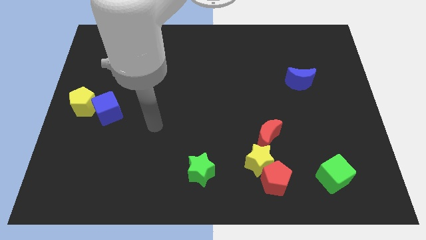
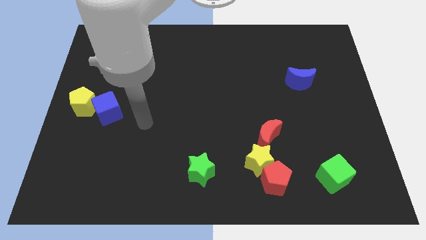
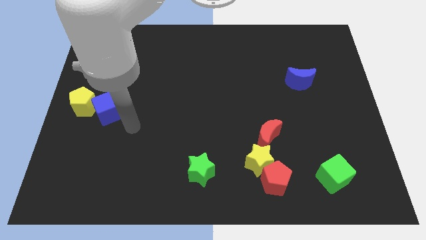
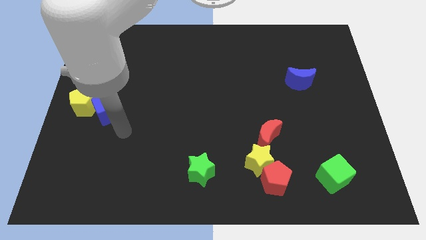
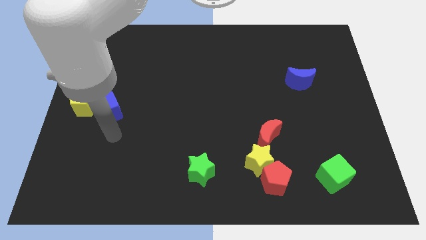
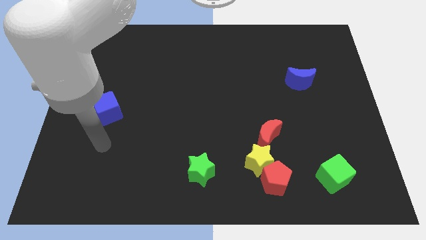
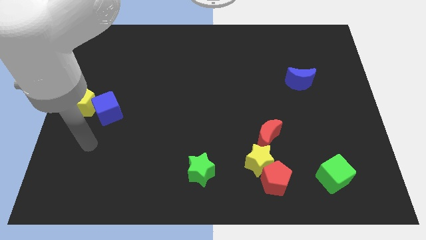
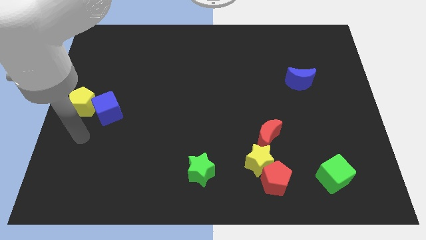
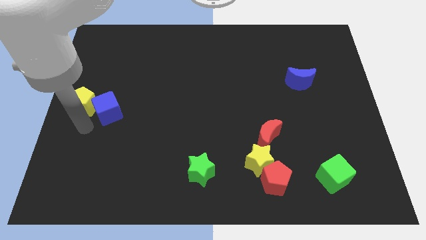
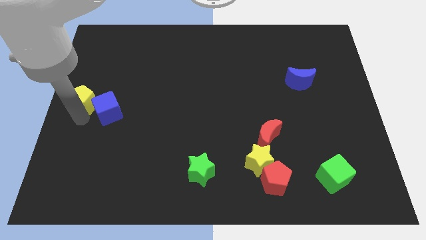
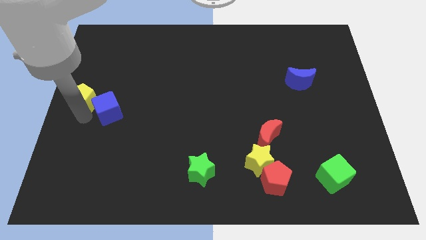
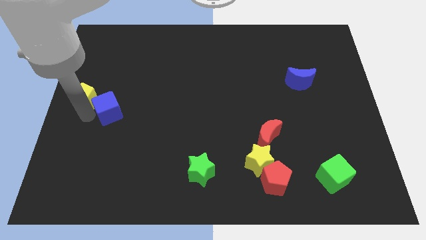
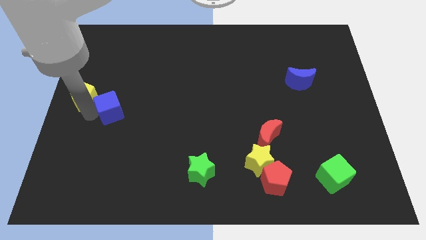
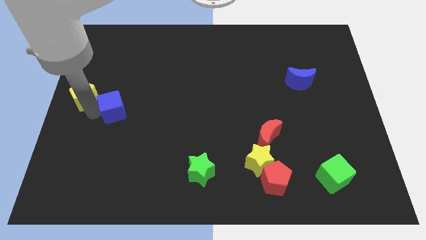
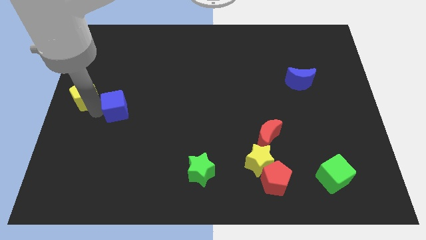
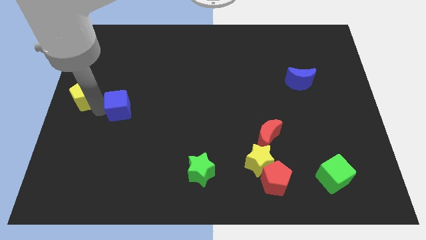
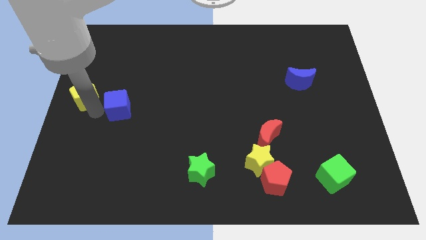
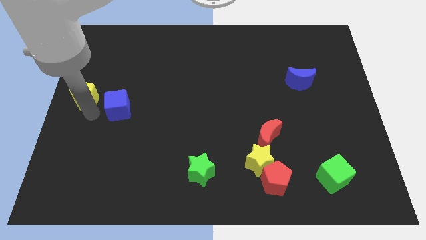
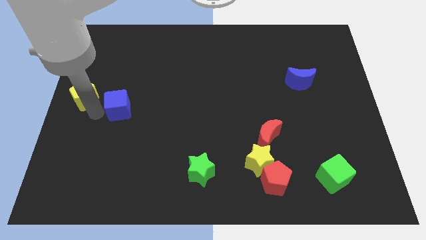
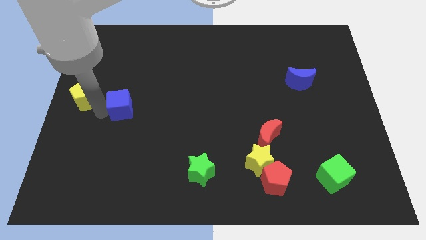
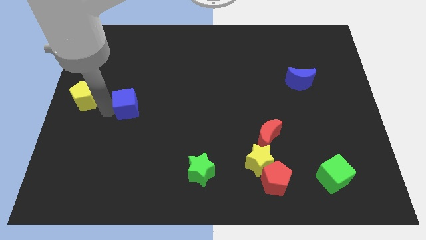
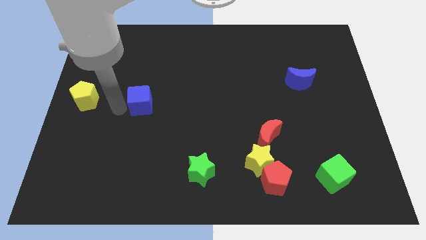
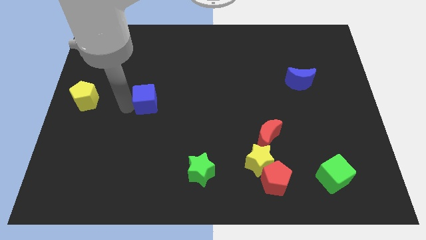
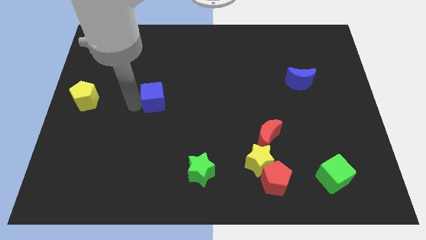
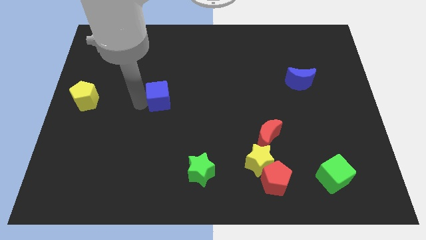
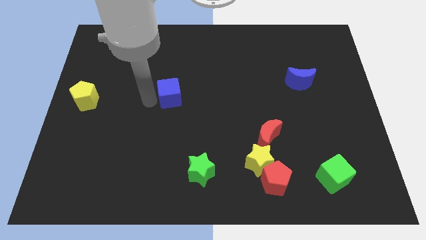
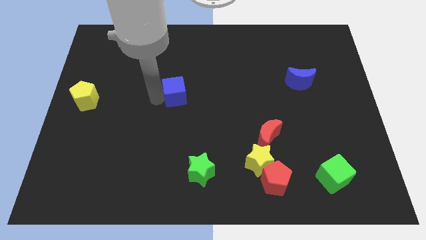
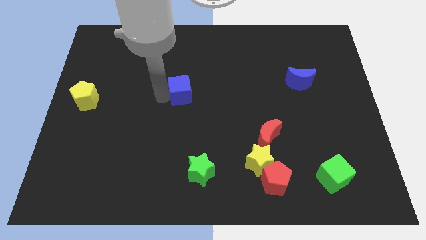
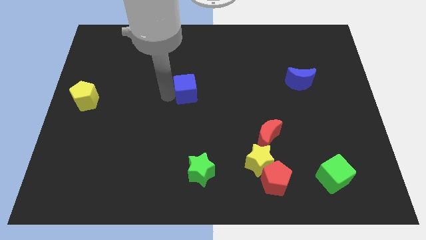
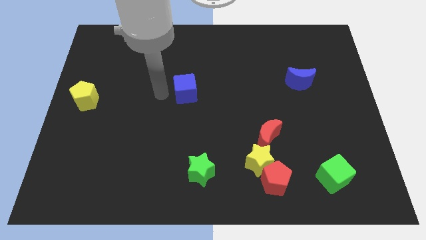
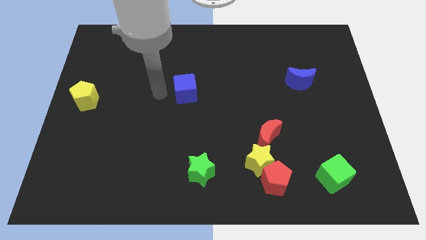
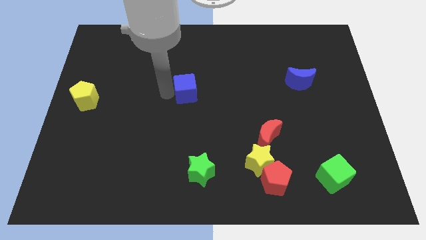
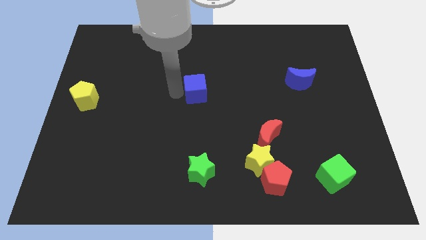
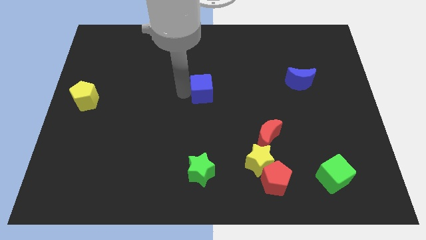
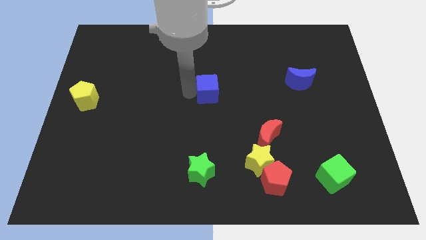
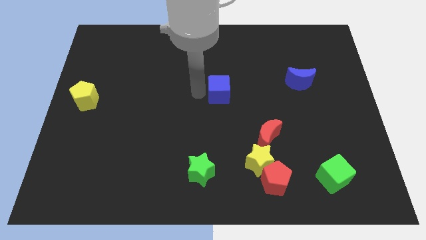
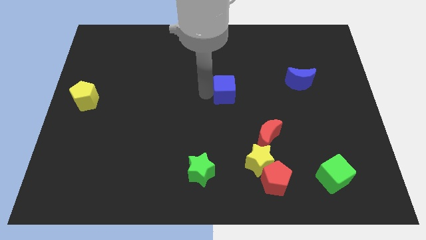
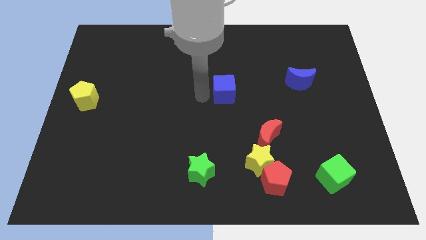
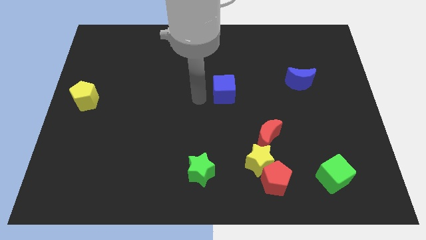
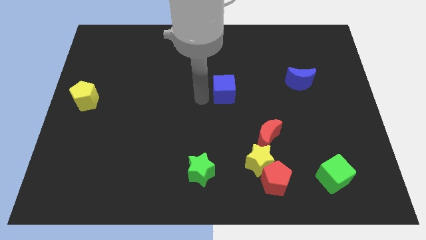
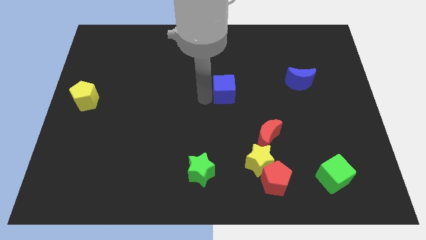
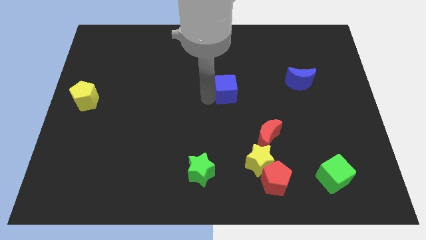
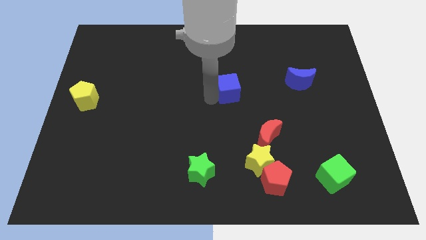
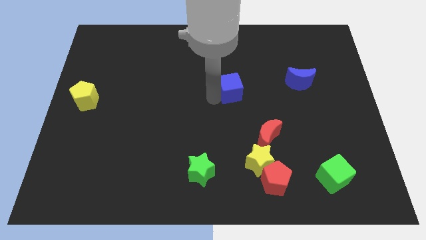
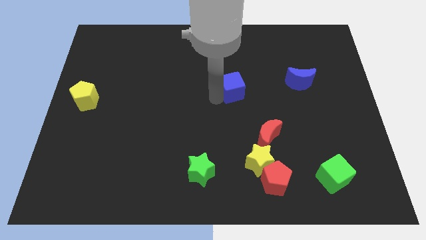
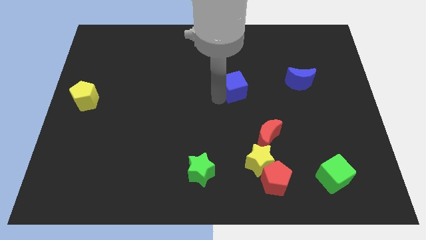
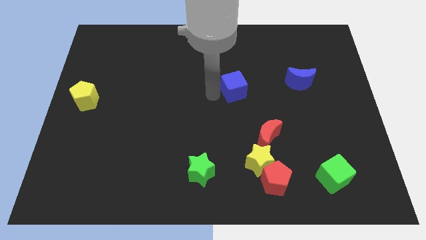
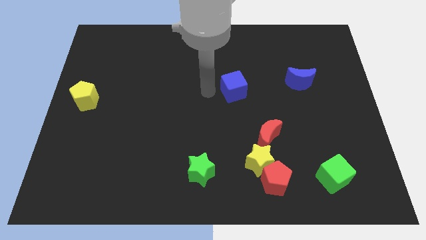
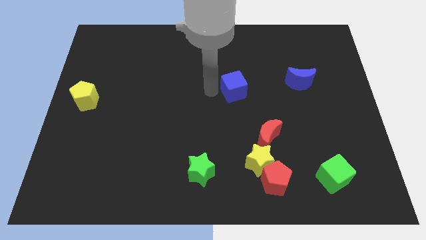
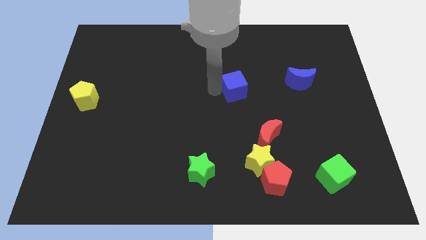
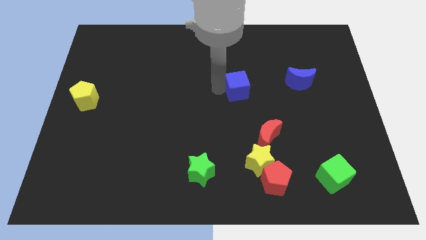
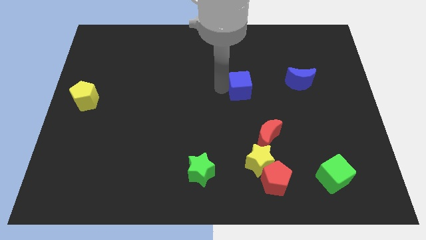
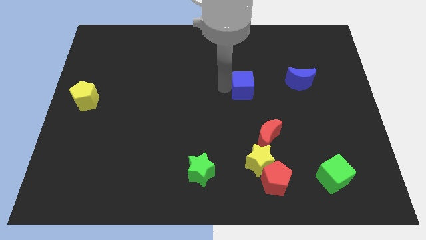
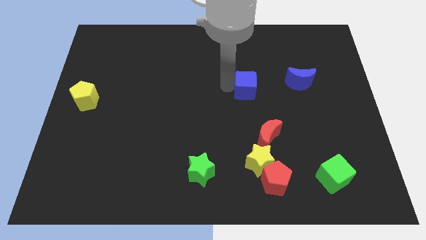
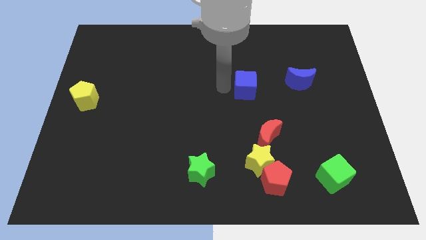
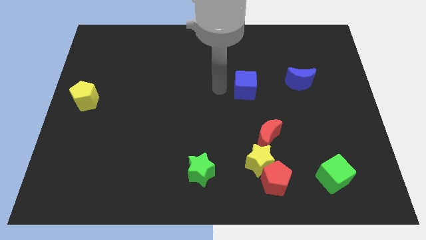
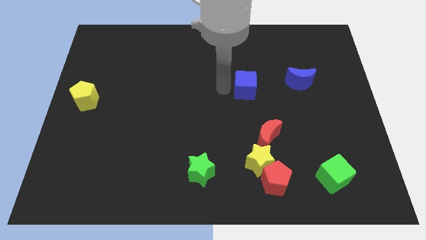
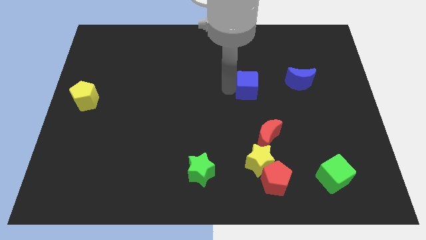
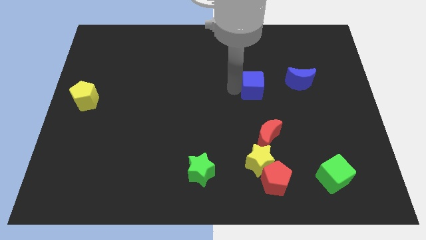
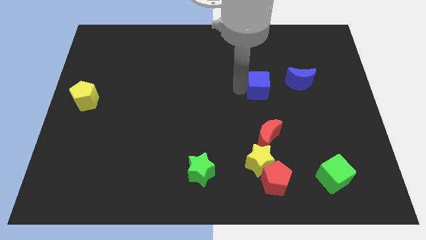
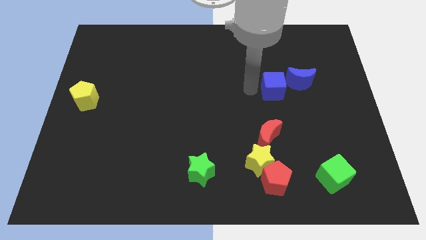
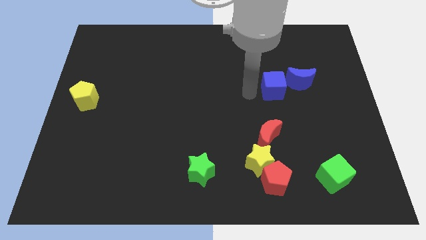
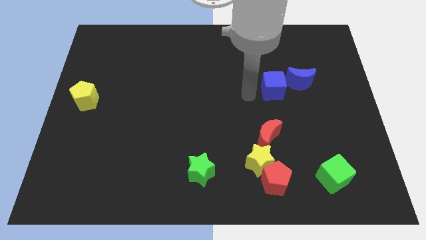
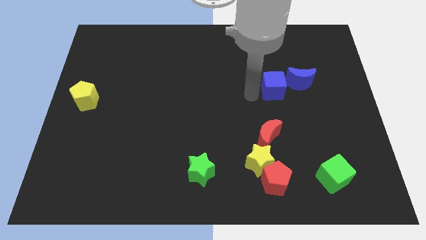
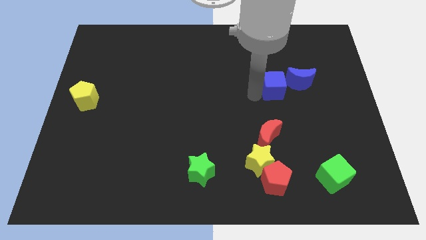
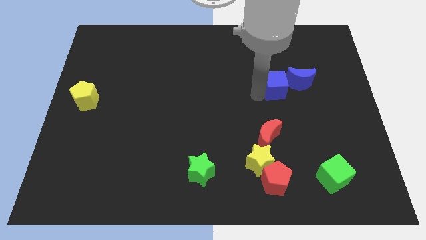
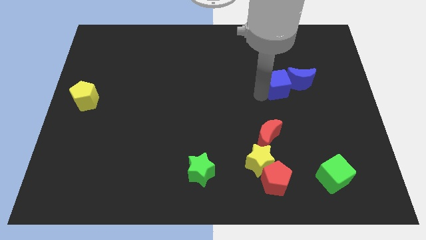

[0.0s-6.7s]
push the blue cube towards the blue moon

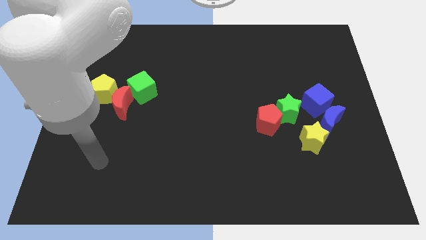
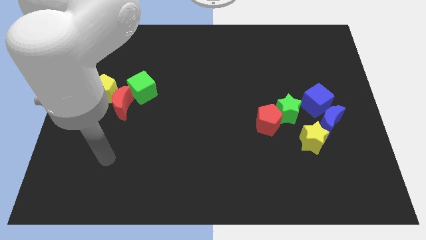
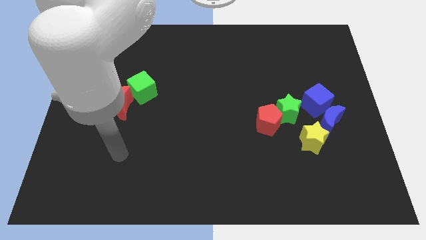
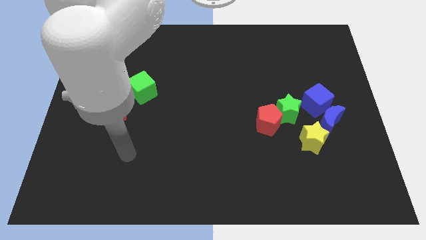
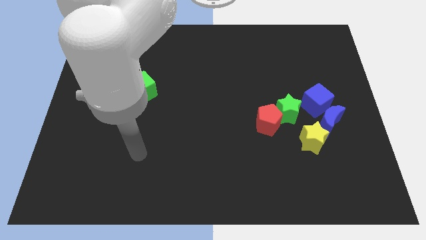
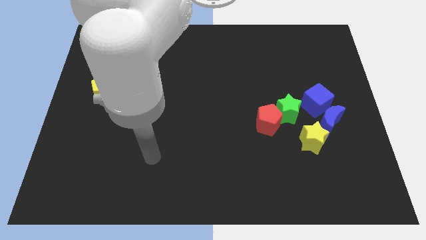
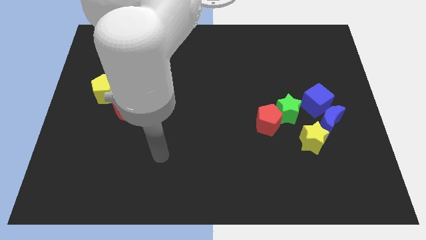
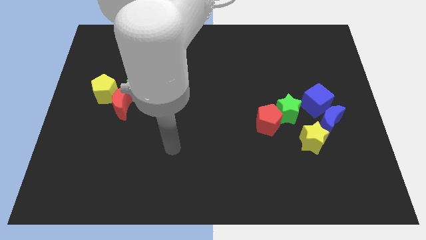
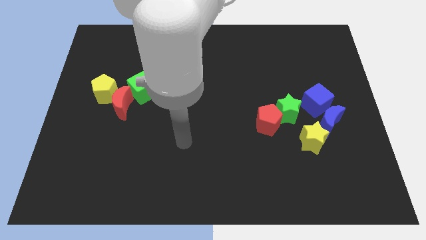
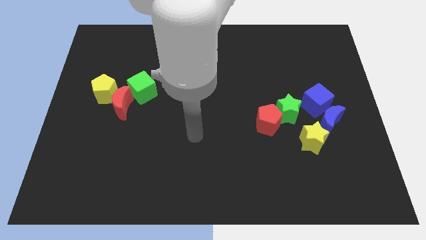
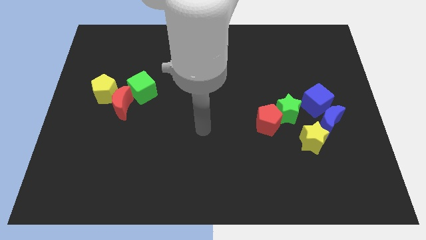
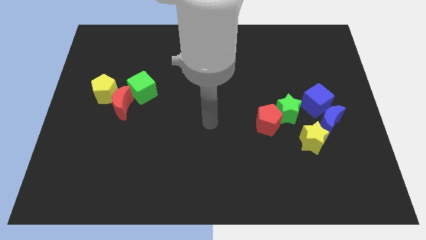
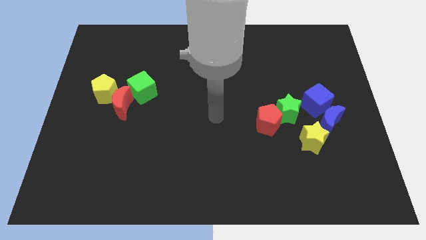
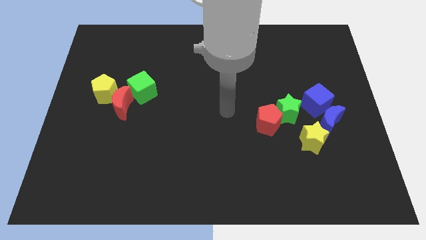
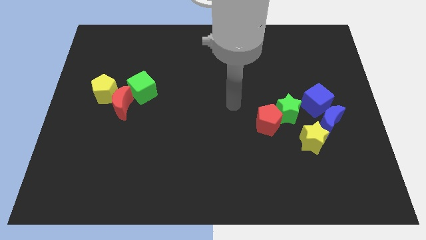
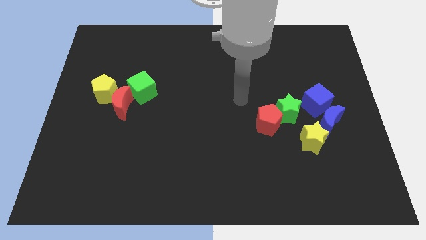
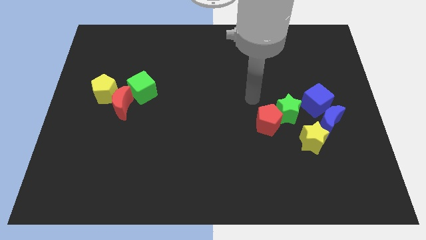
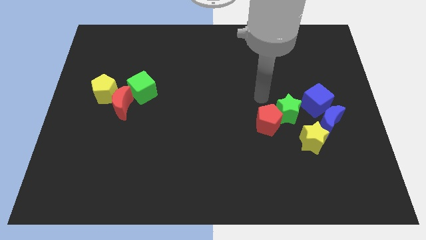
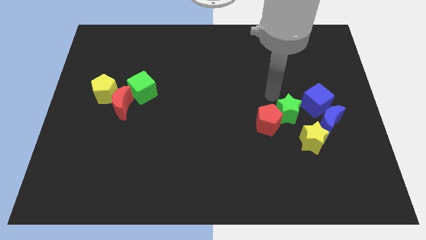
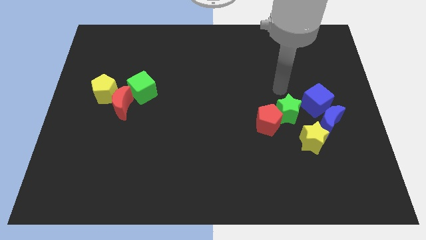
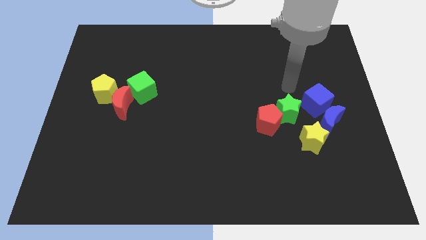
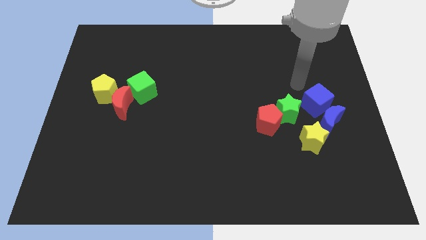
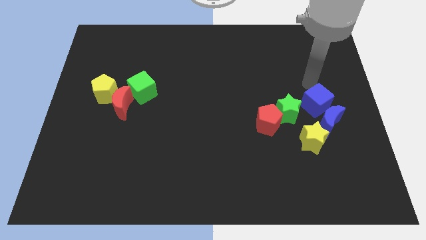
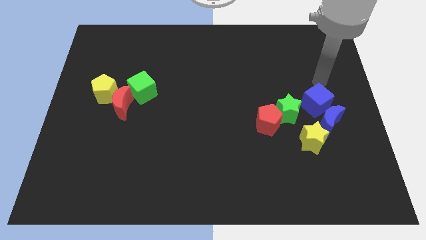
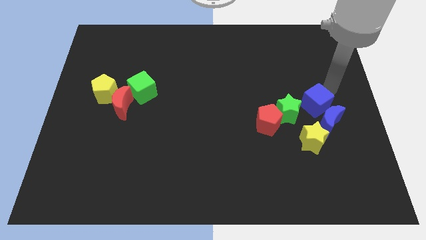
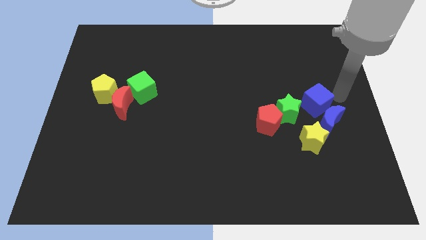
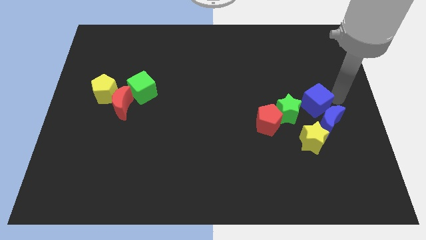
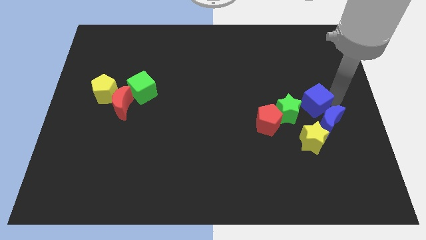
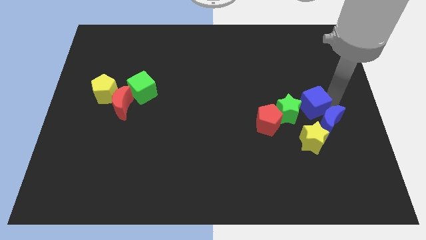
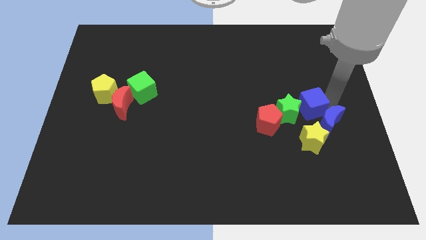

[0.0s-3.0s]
put the blue cube towards the green star
